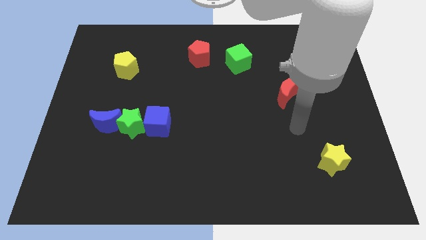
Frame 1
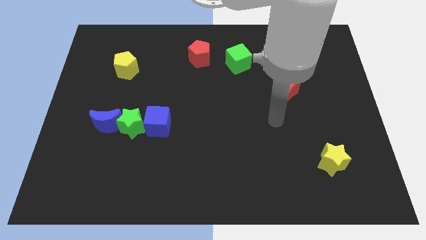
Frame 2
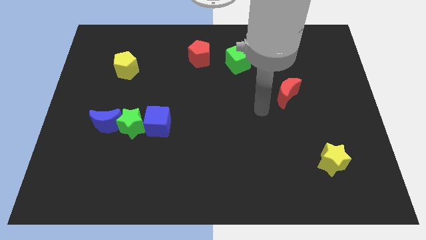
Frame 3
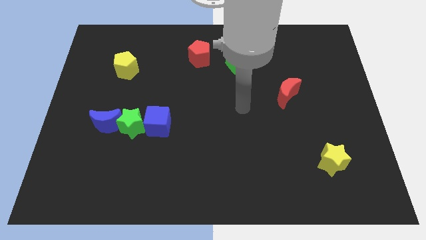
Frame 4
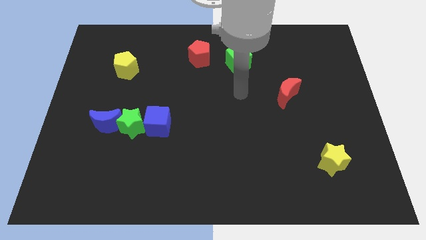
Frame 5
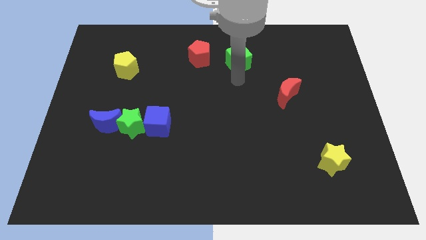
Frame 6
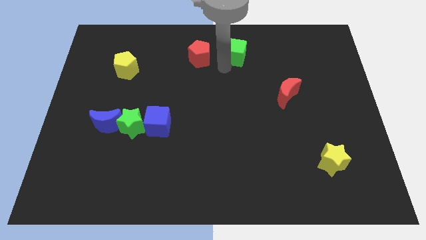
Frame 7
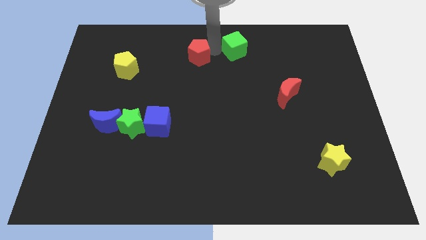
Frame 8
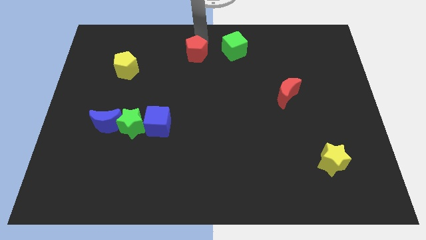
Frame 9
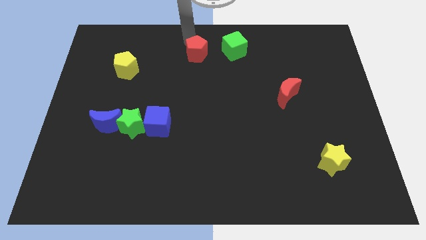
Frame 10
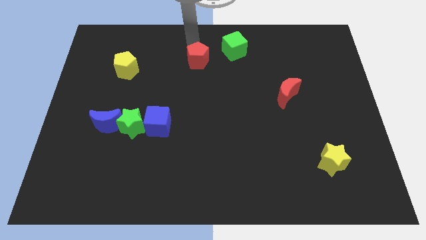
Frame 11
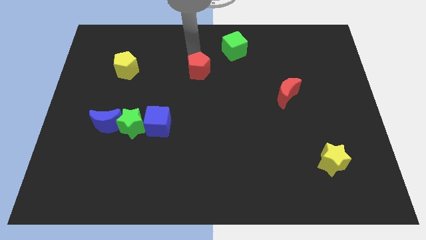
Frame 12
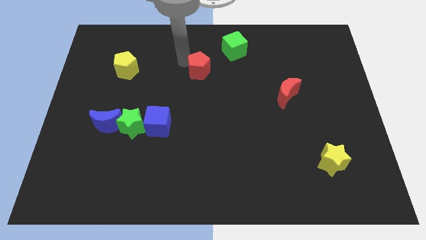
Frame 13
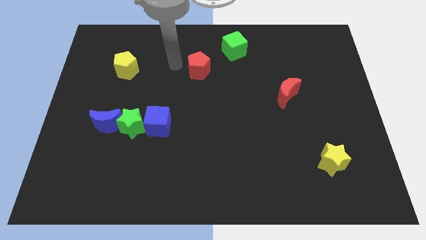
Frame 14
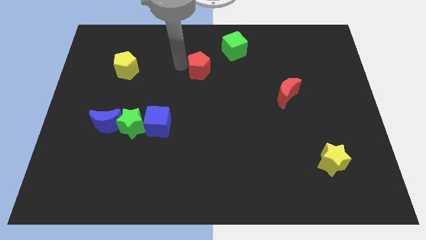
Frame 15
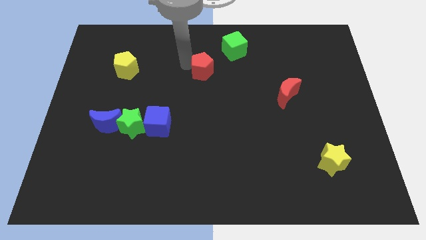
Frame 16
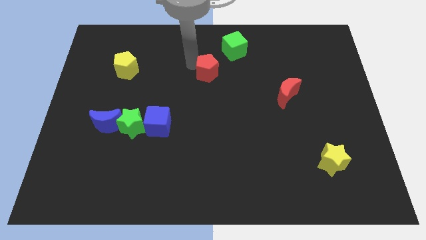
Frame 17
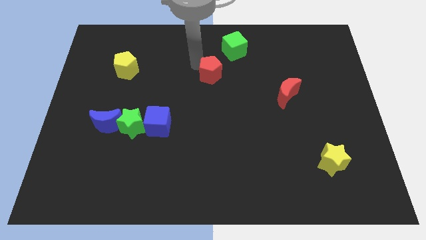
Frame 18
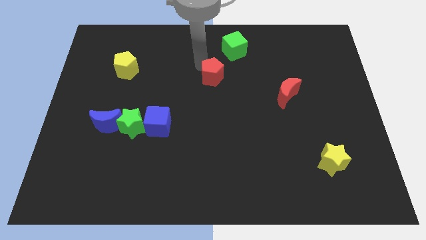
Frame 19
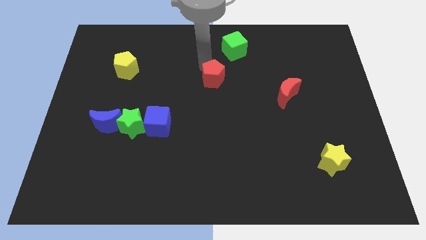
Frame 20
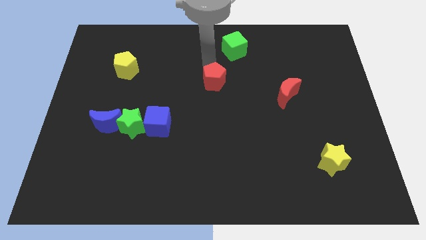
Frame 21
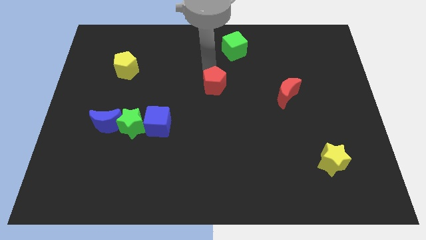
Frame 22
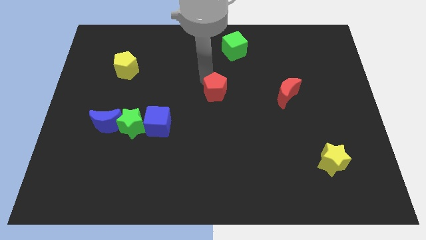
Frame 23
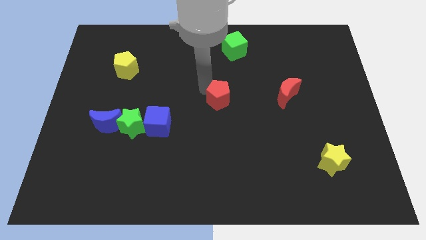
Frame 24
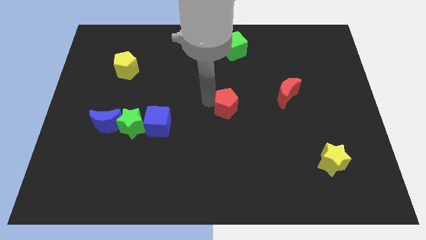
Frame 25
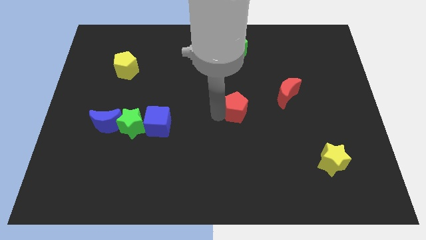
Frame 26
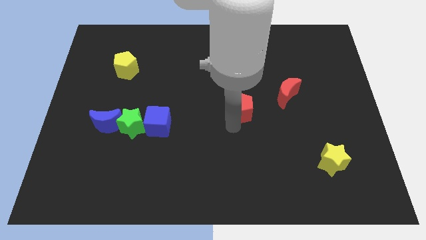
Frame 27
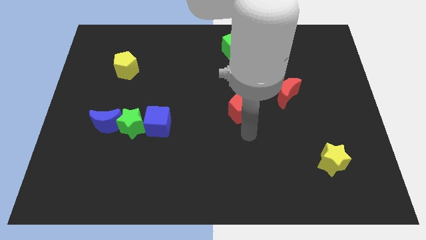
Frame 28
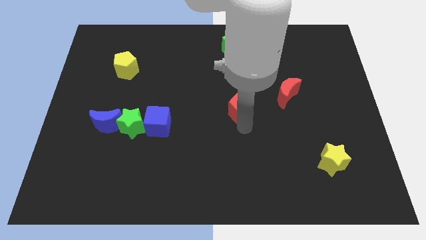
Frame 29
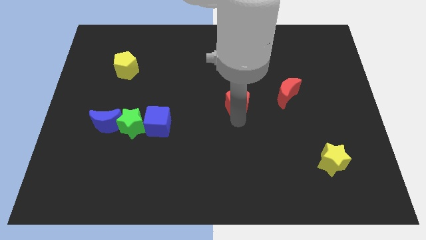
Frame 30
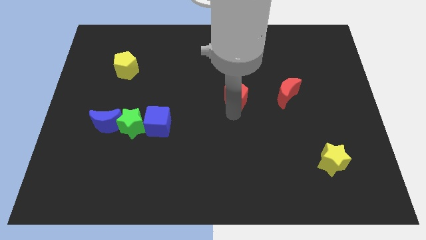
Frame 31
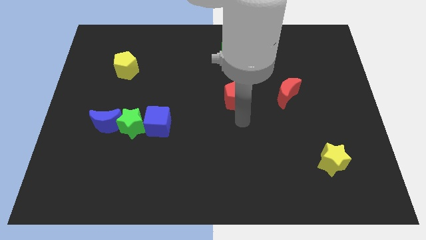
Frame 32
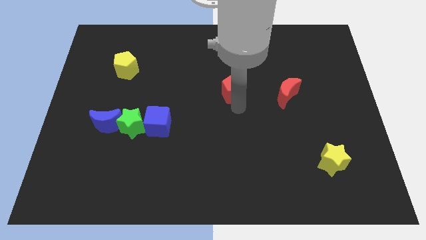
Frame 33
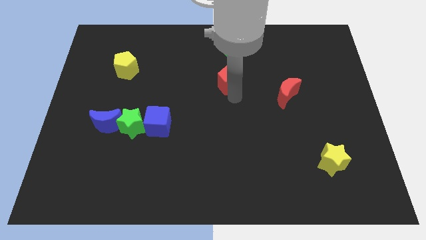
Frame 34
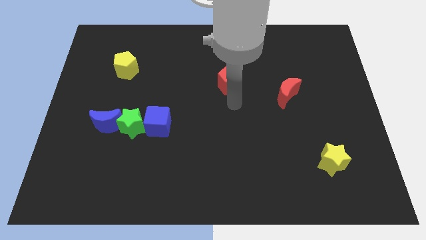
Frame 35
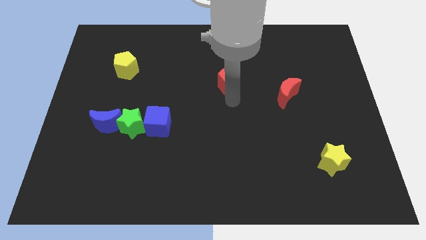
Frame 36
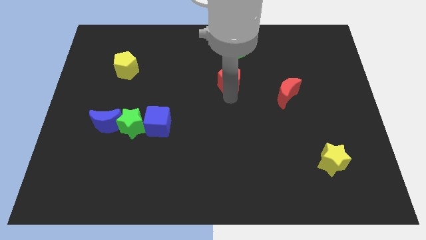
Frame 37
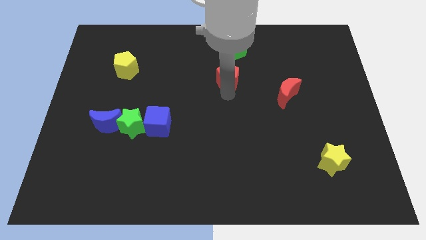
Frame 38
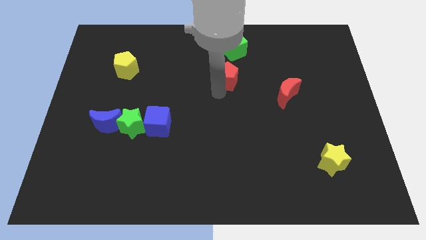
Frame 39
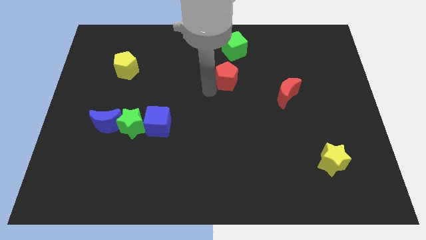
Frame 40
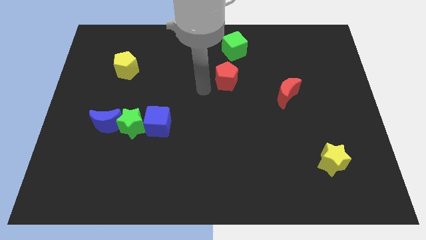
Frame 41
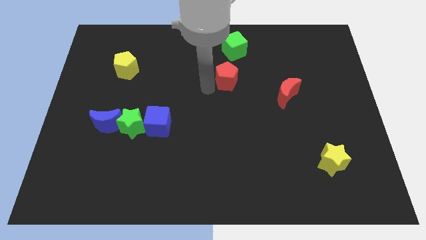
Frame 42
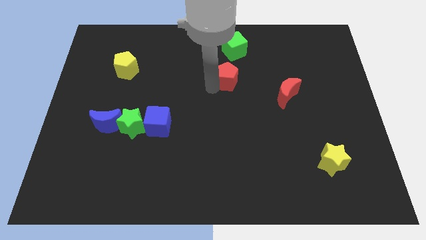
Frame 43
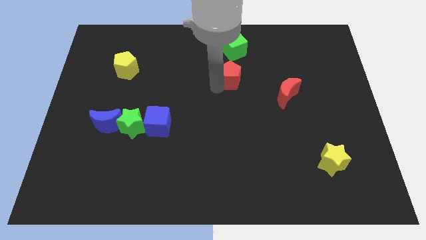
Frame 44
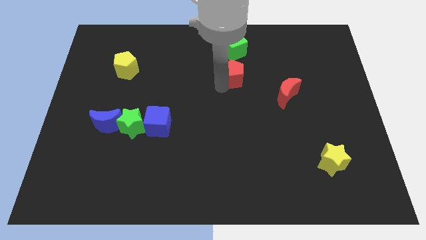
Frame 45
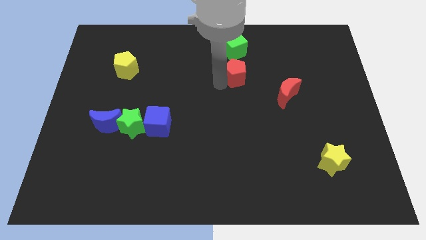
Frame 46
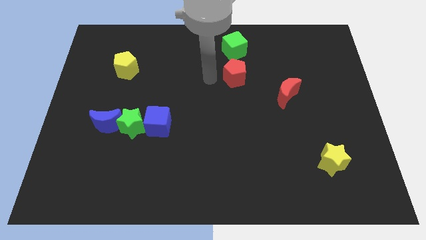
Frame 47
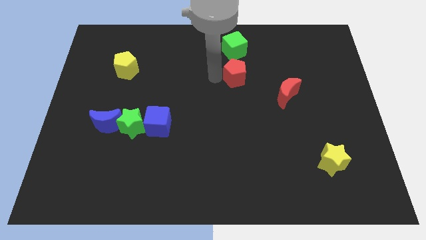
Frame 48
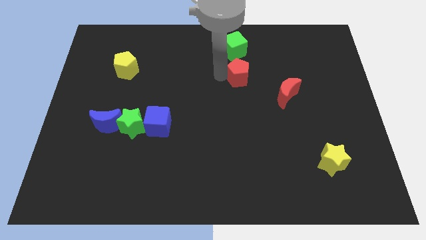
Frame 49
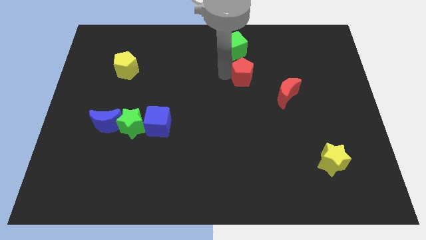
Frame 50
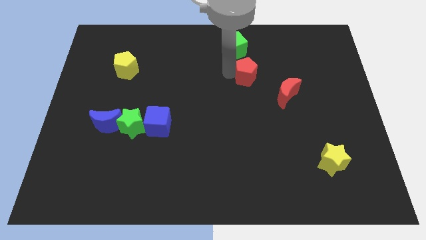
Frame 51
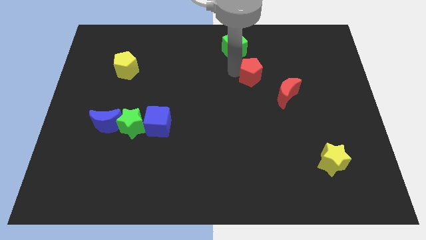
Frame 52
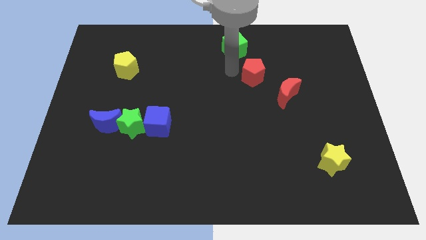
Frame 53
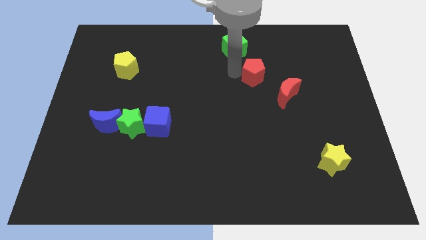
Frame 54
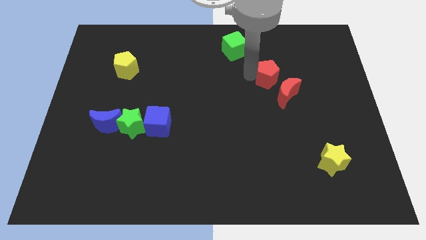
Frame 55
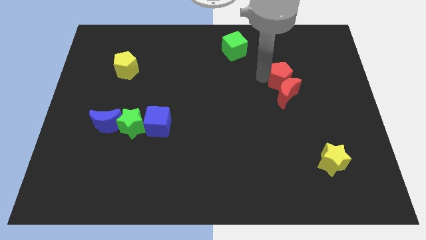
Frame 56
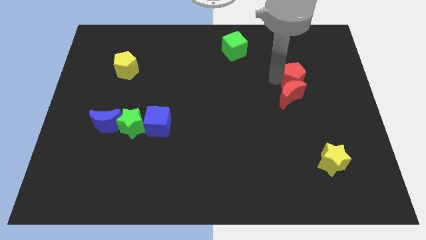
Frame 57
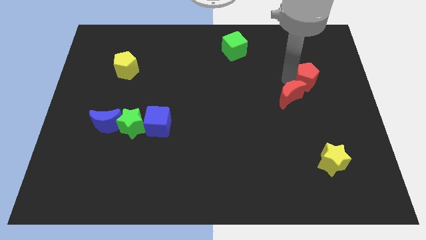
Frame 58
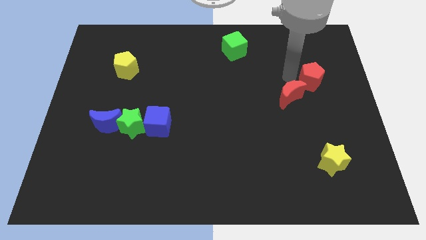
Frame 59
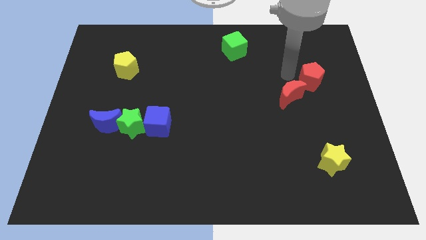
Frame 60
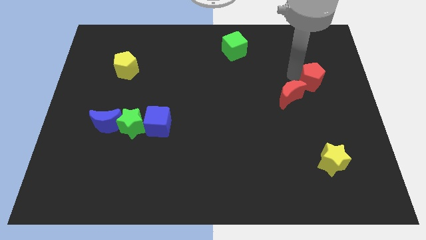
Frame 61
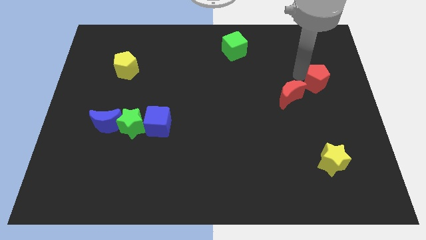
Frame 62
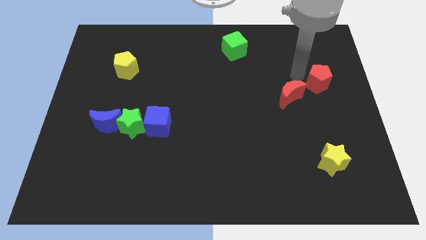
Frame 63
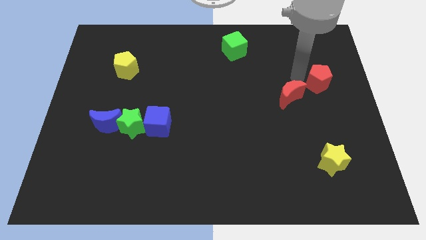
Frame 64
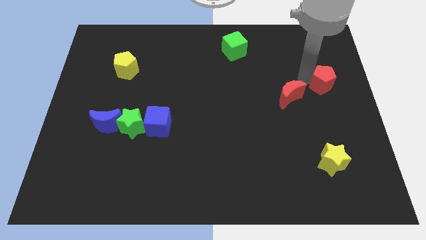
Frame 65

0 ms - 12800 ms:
push the red pentagon to the center right

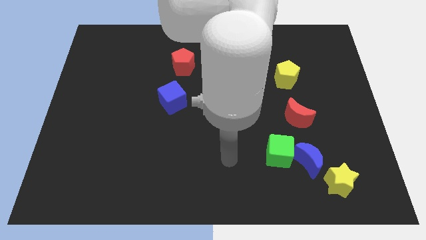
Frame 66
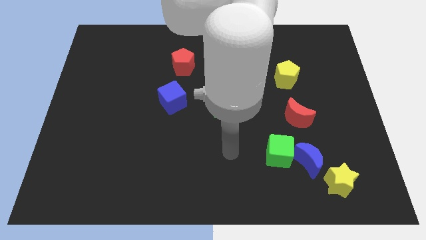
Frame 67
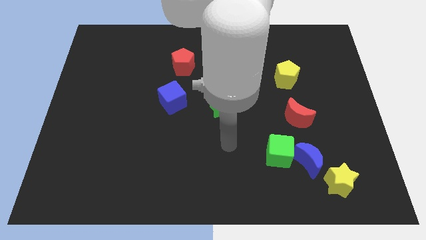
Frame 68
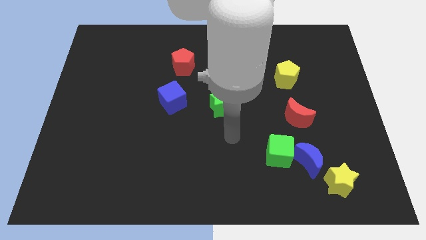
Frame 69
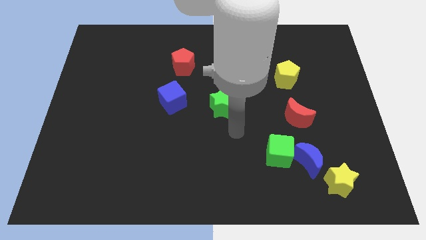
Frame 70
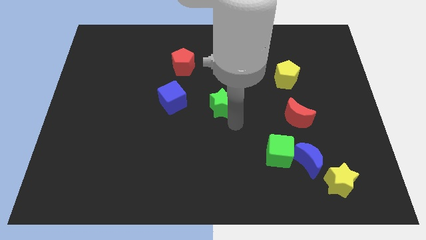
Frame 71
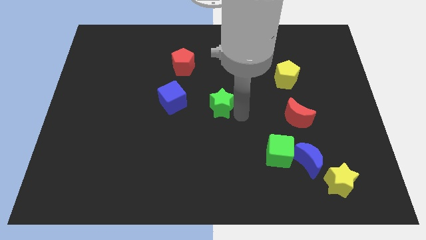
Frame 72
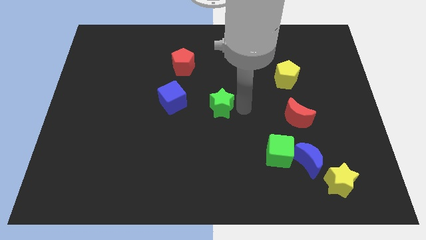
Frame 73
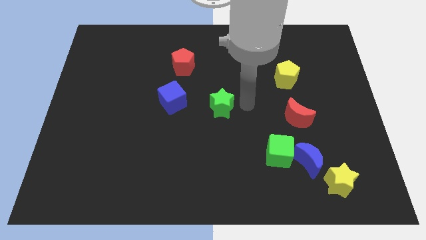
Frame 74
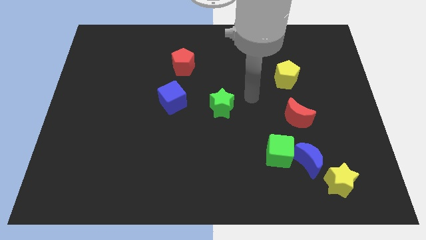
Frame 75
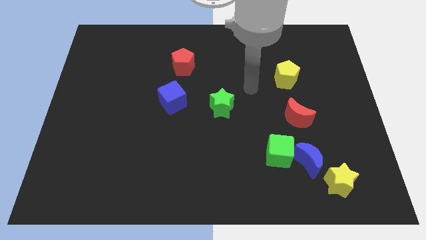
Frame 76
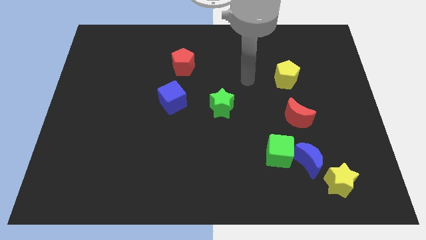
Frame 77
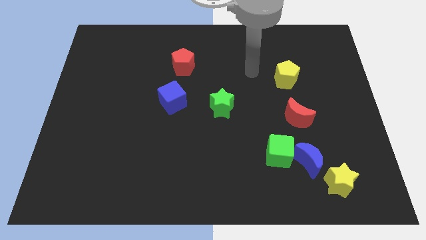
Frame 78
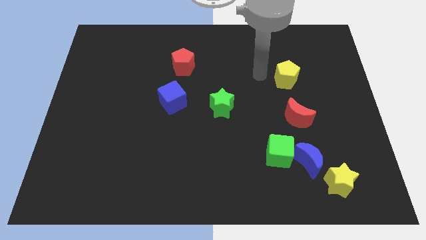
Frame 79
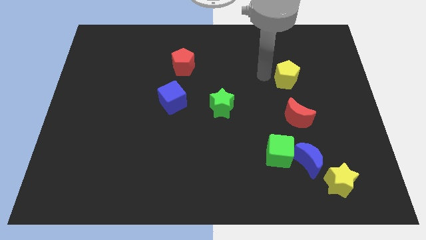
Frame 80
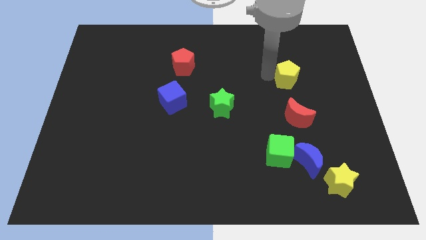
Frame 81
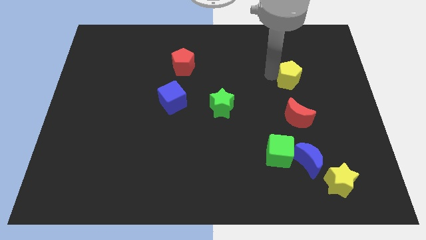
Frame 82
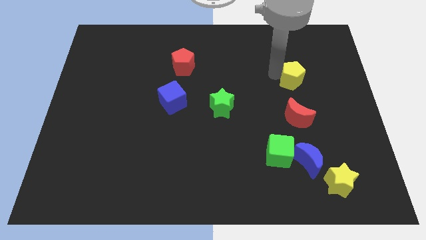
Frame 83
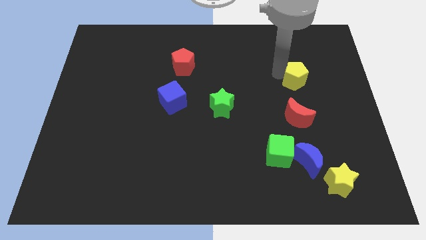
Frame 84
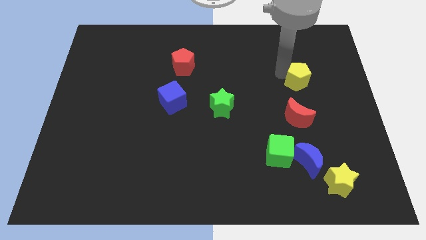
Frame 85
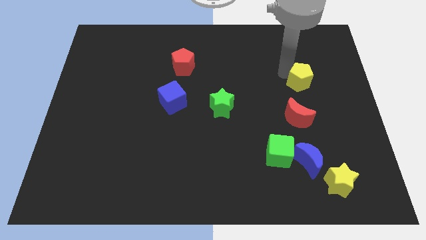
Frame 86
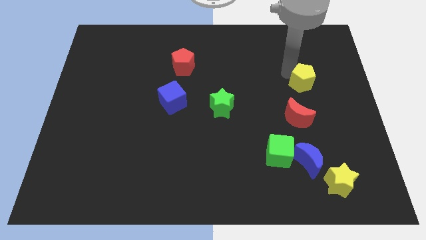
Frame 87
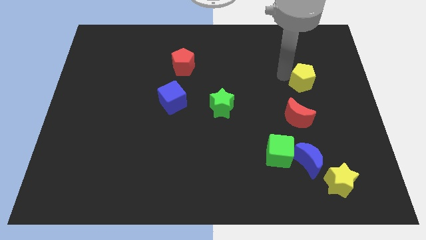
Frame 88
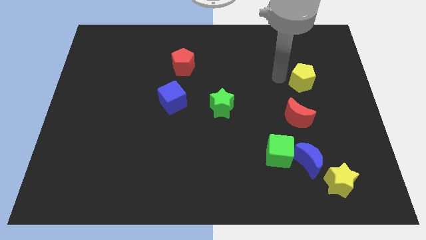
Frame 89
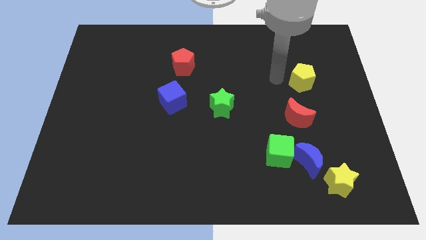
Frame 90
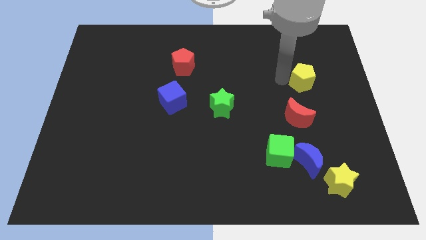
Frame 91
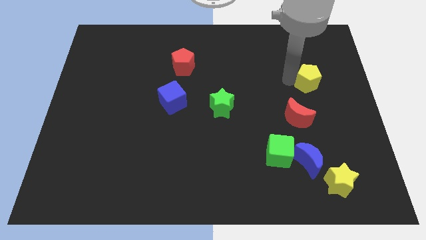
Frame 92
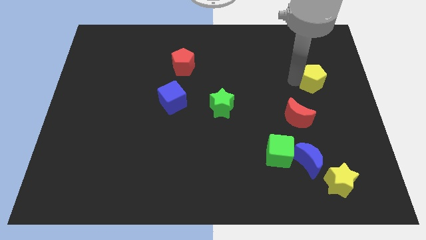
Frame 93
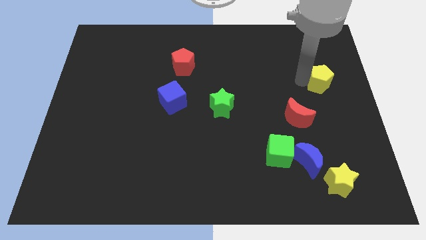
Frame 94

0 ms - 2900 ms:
push the yellow pentagon to the right side
